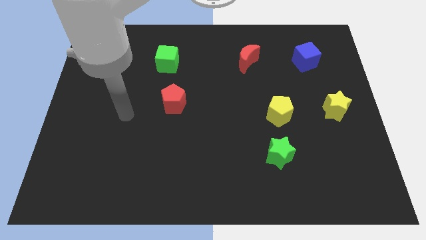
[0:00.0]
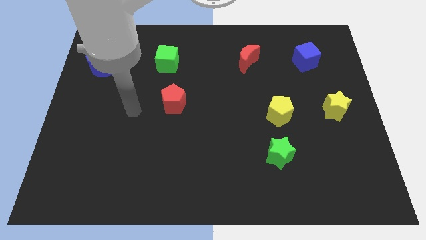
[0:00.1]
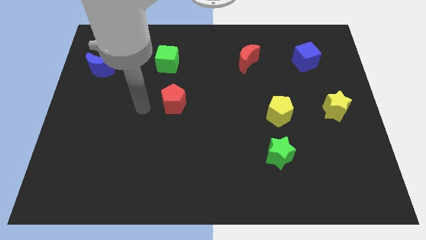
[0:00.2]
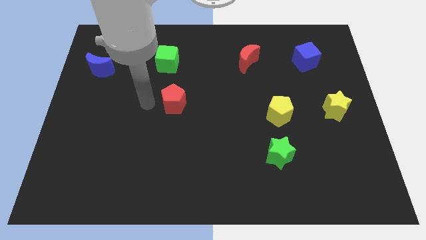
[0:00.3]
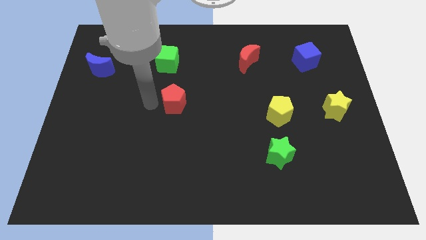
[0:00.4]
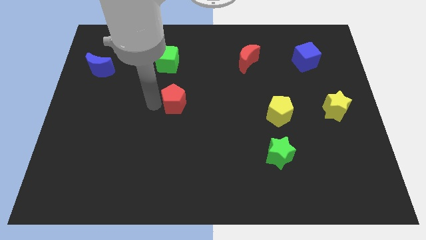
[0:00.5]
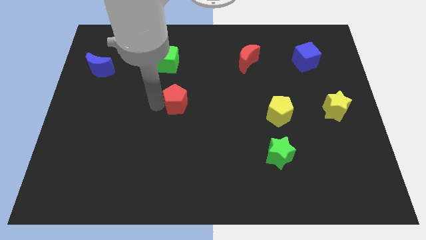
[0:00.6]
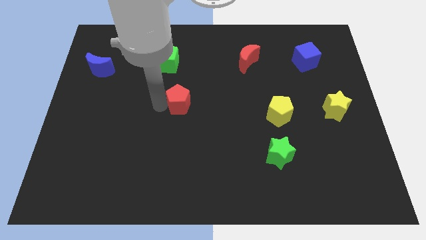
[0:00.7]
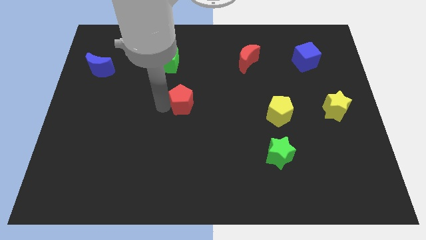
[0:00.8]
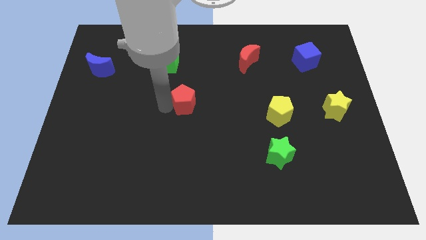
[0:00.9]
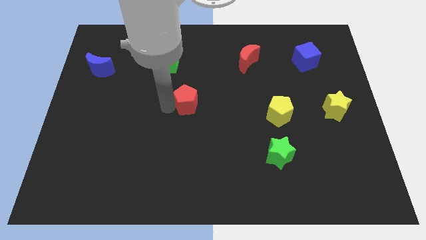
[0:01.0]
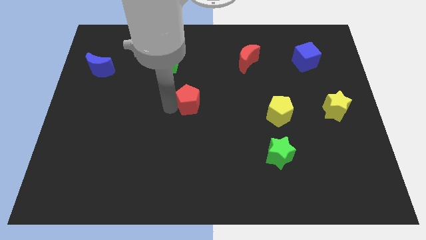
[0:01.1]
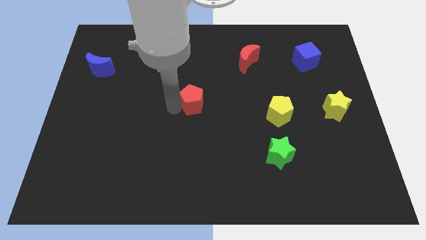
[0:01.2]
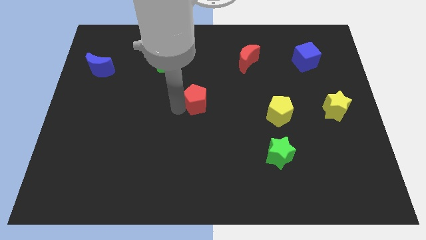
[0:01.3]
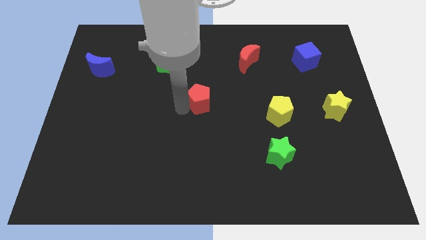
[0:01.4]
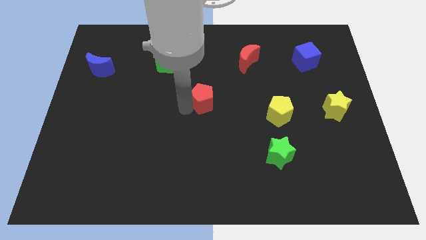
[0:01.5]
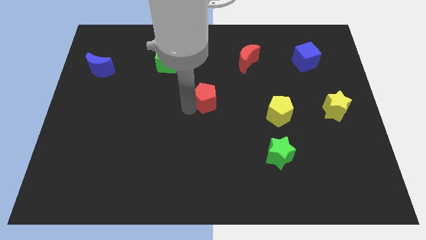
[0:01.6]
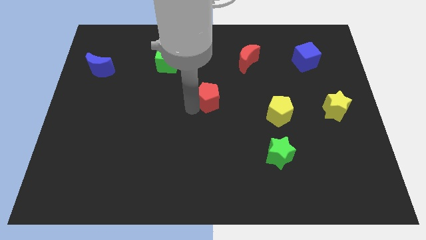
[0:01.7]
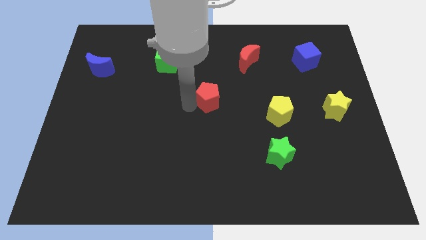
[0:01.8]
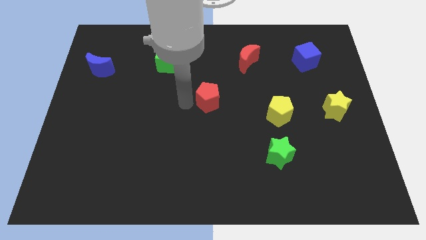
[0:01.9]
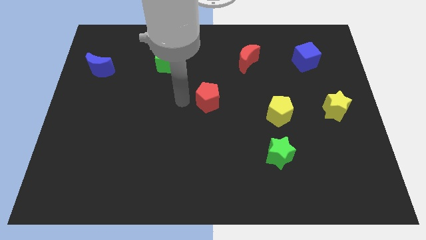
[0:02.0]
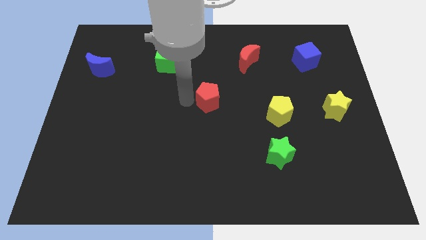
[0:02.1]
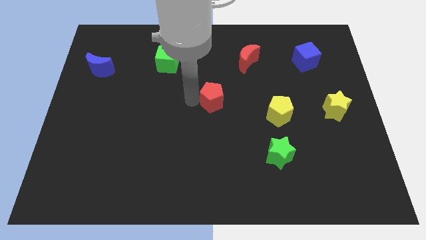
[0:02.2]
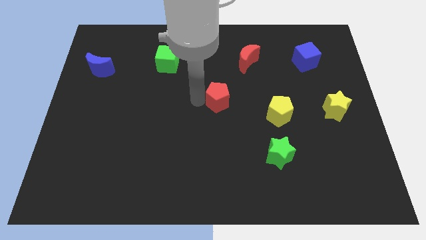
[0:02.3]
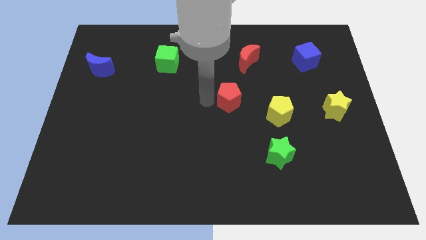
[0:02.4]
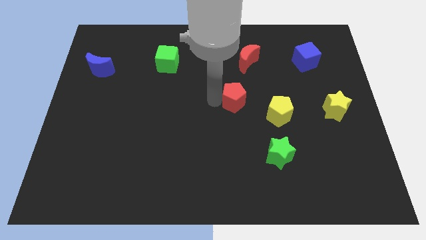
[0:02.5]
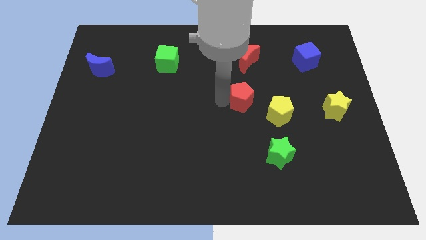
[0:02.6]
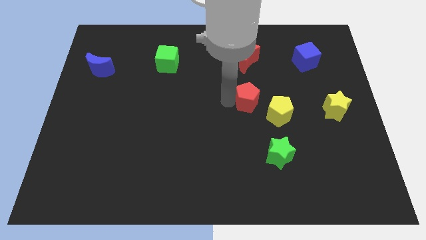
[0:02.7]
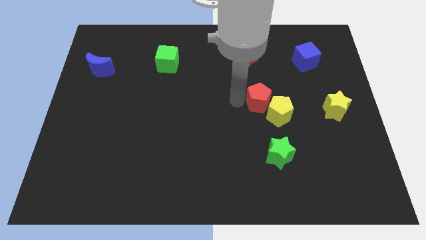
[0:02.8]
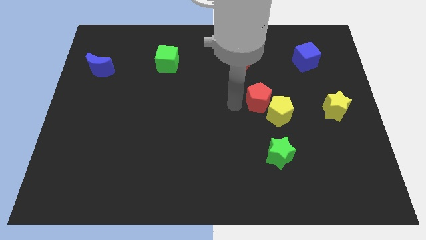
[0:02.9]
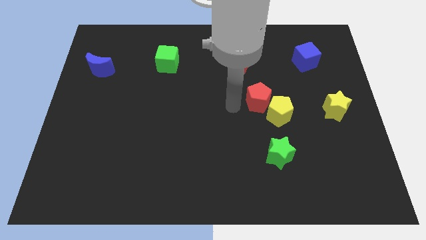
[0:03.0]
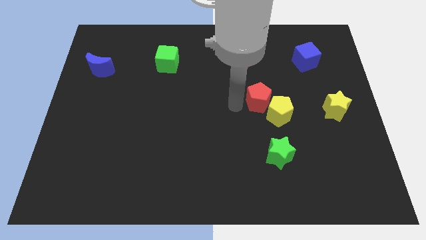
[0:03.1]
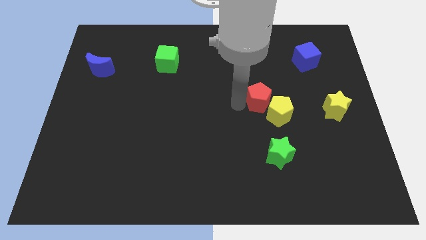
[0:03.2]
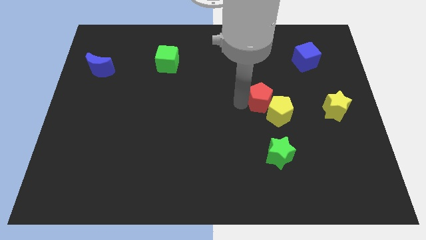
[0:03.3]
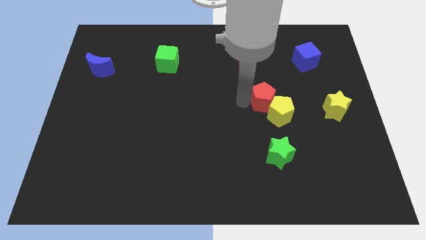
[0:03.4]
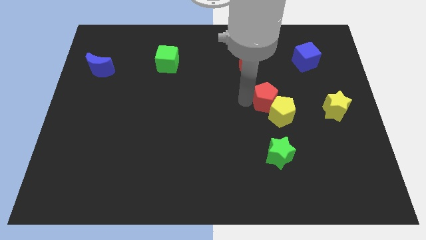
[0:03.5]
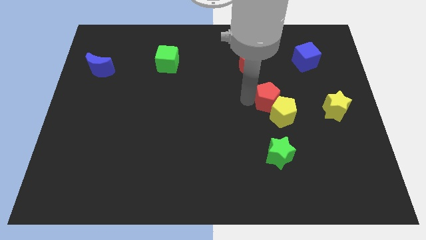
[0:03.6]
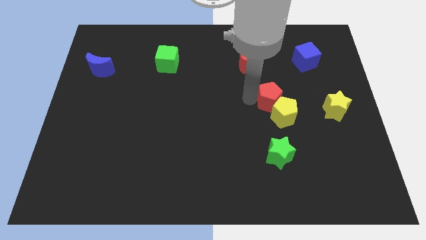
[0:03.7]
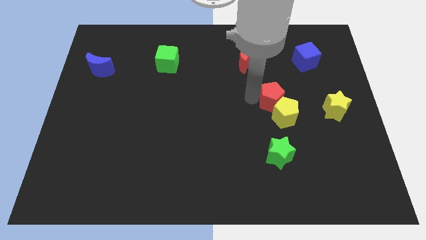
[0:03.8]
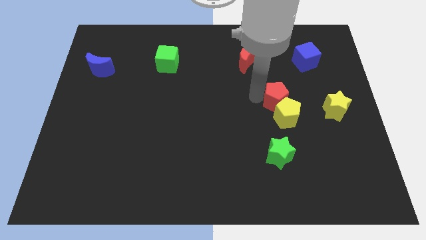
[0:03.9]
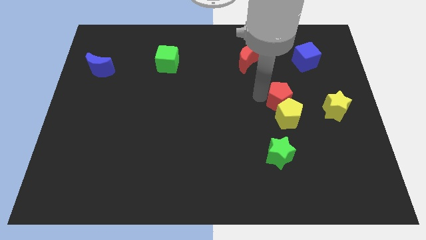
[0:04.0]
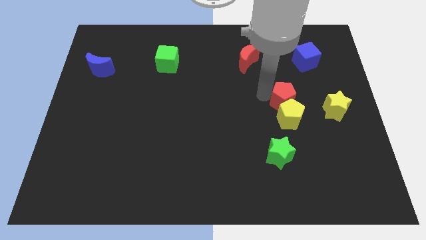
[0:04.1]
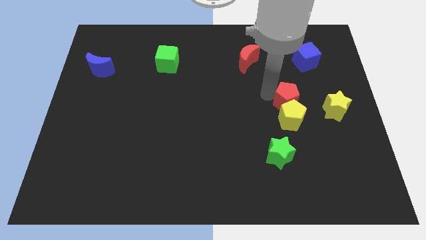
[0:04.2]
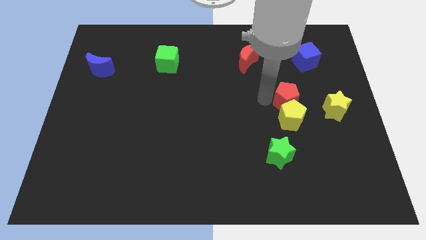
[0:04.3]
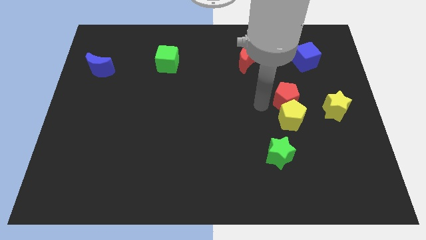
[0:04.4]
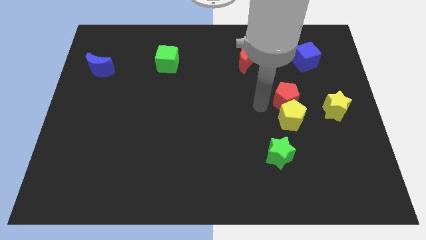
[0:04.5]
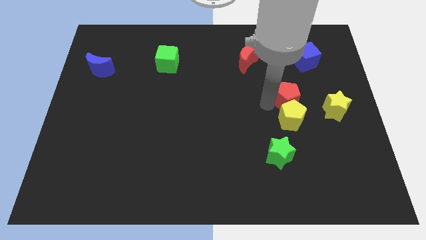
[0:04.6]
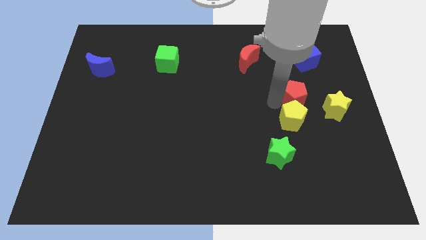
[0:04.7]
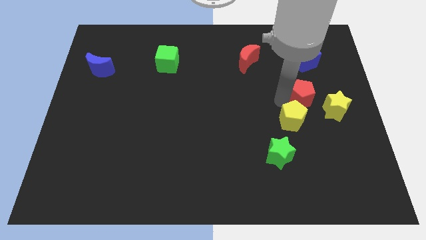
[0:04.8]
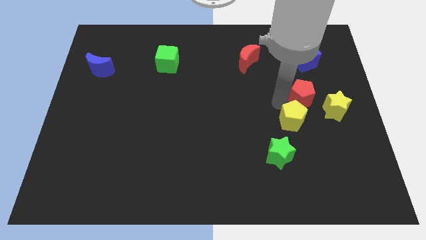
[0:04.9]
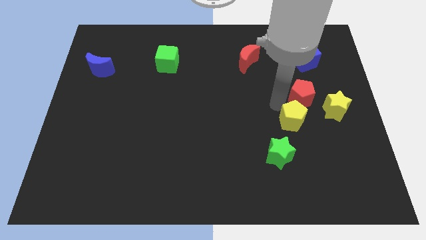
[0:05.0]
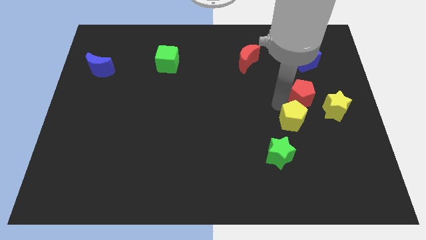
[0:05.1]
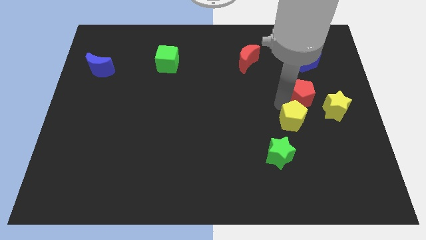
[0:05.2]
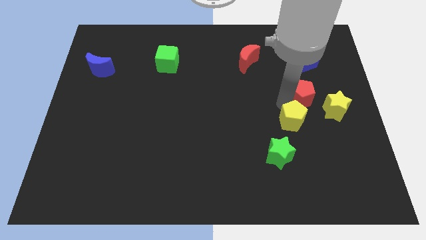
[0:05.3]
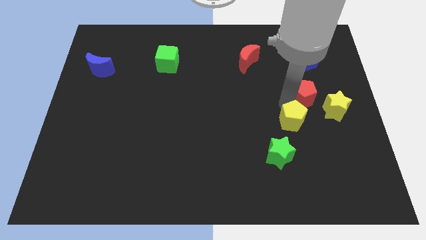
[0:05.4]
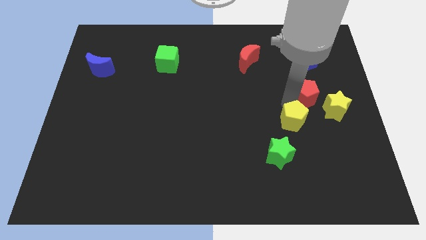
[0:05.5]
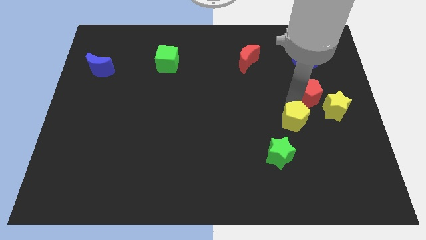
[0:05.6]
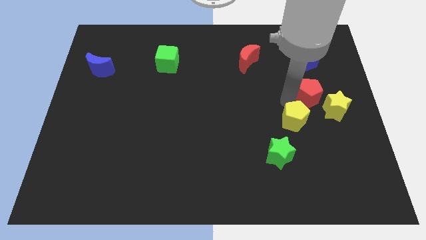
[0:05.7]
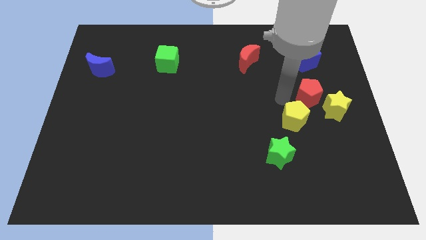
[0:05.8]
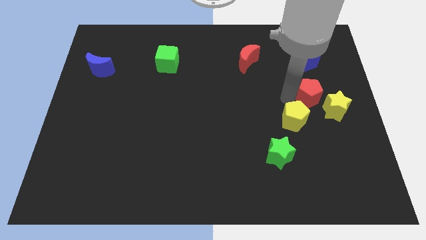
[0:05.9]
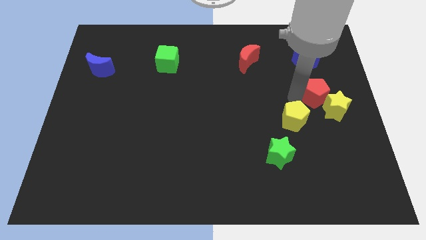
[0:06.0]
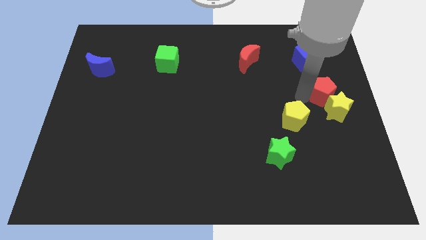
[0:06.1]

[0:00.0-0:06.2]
push the red pentagon to the right side
